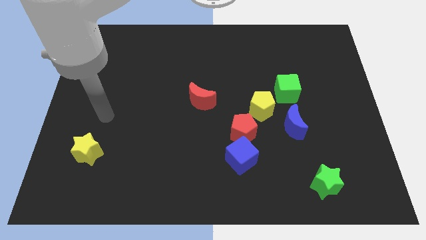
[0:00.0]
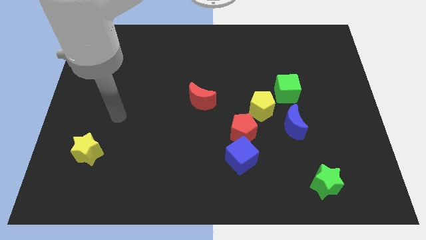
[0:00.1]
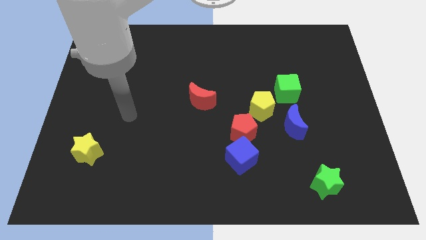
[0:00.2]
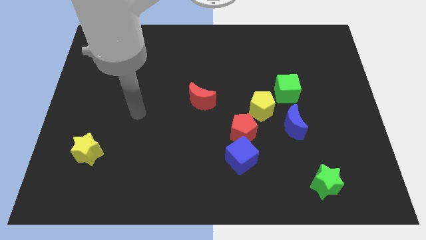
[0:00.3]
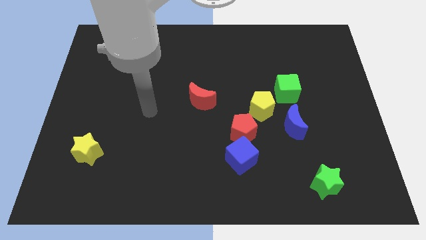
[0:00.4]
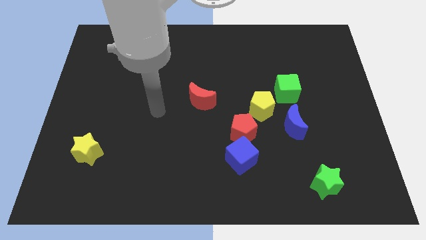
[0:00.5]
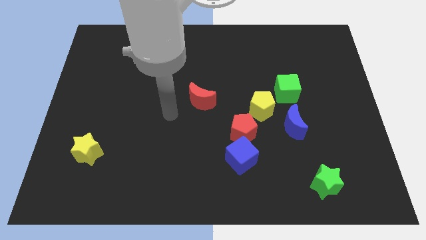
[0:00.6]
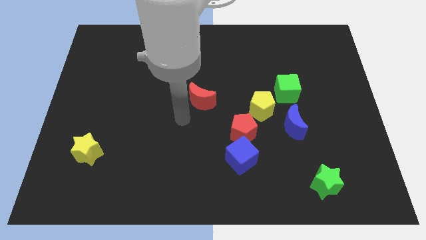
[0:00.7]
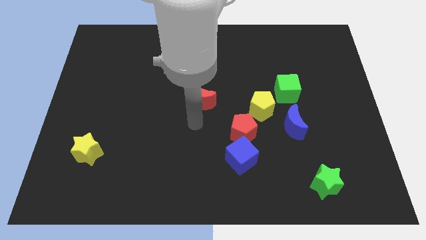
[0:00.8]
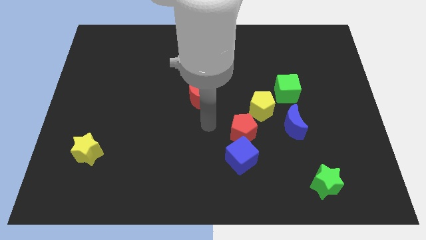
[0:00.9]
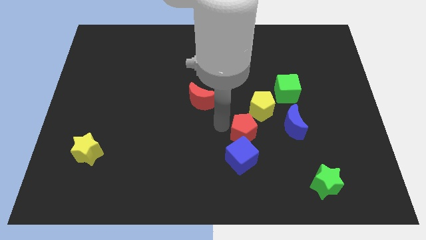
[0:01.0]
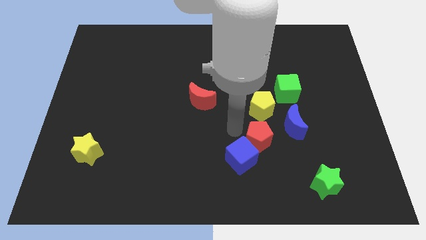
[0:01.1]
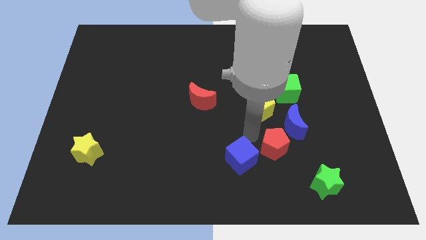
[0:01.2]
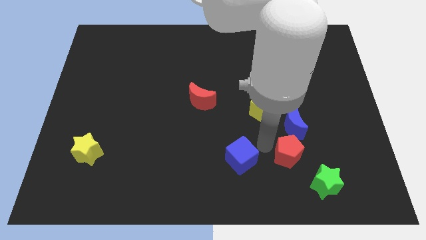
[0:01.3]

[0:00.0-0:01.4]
move the blue cube away from the red pentagon

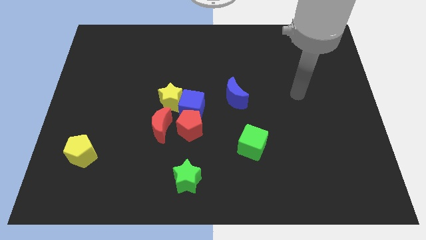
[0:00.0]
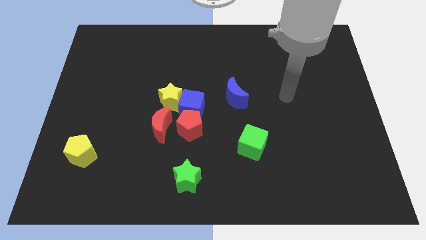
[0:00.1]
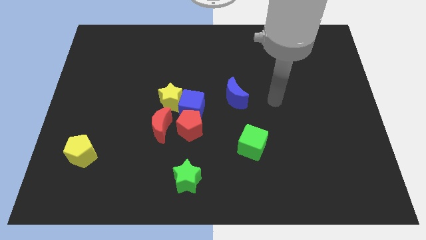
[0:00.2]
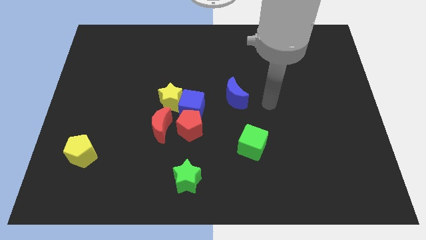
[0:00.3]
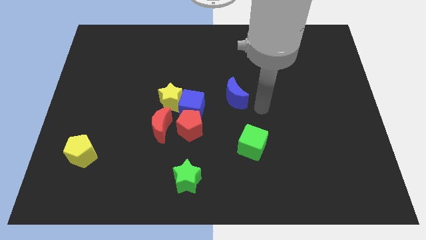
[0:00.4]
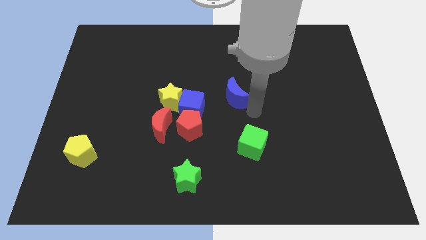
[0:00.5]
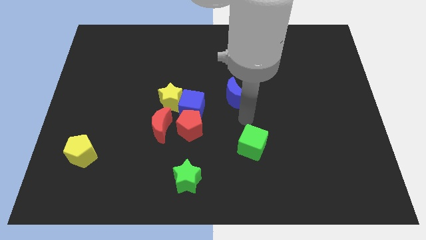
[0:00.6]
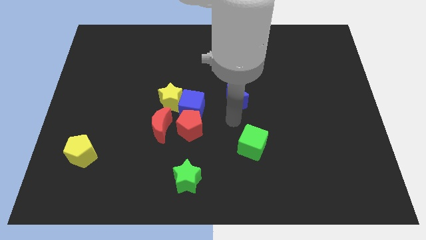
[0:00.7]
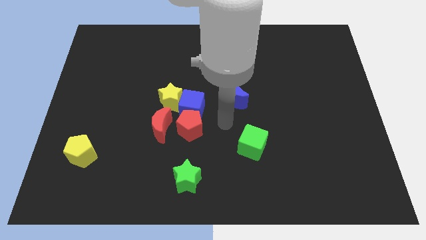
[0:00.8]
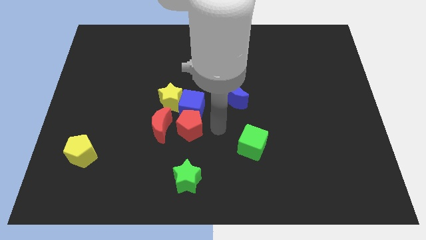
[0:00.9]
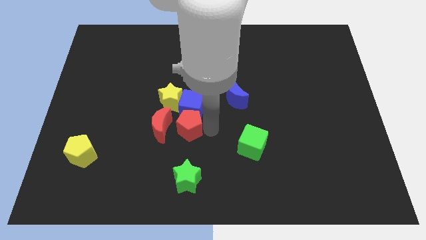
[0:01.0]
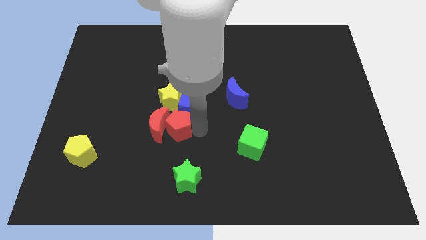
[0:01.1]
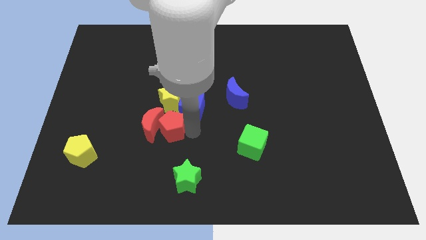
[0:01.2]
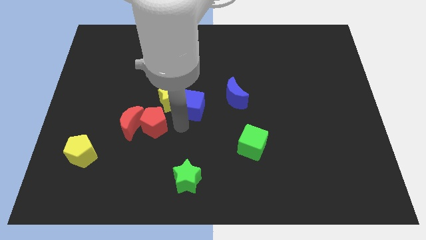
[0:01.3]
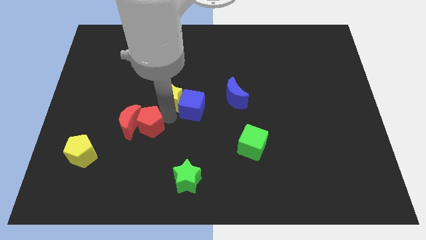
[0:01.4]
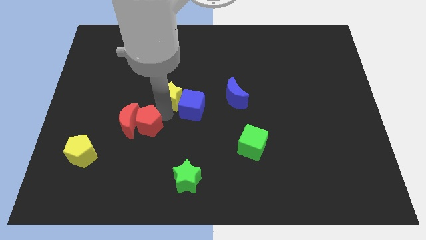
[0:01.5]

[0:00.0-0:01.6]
move the blue cube away from the group

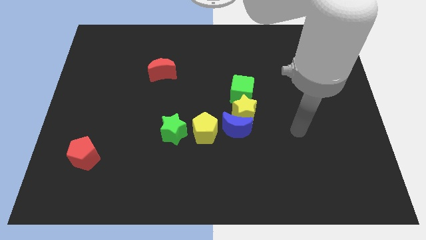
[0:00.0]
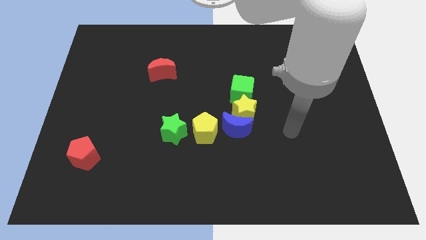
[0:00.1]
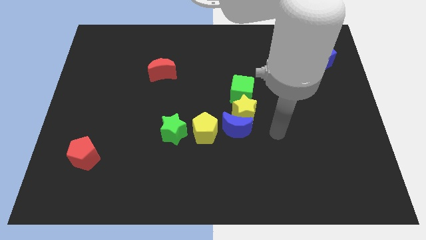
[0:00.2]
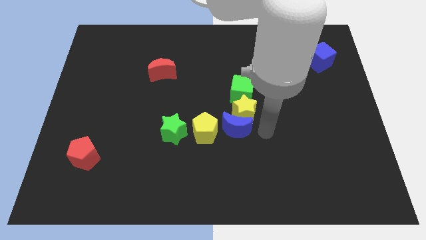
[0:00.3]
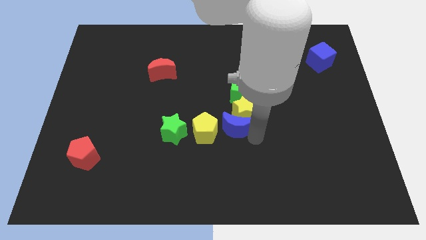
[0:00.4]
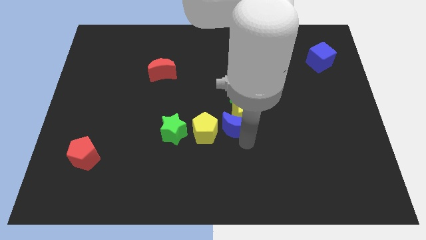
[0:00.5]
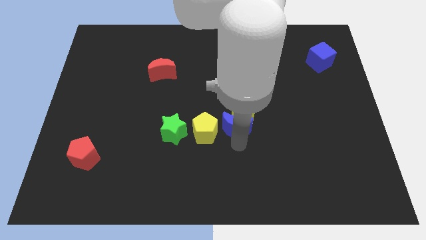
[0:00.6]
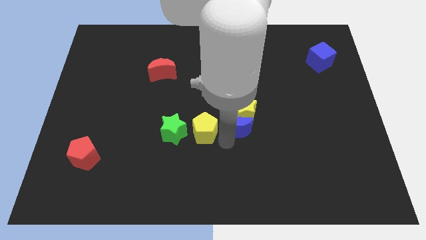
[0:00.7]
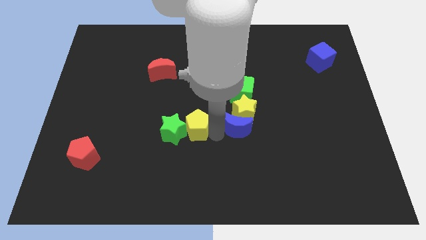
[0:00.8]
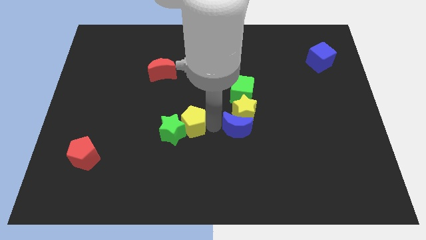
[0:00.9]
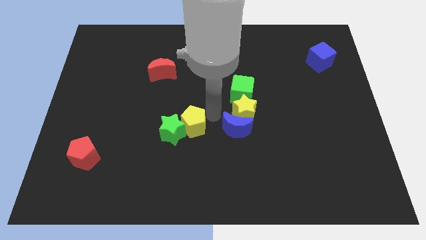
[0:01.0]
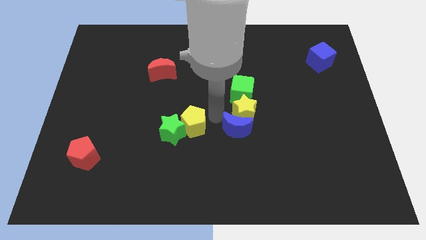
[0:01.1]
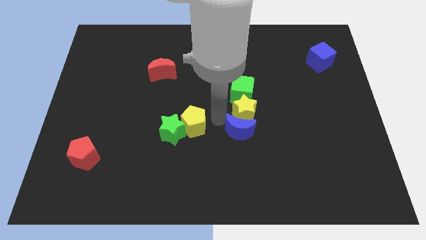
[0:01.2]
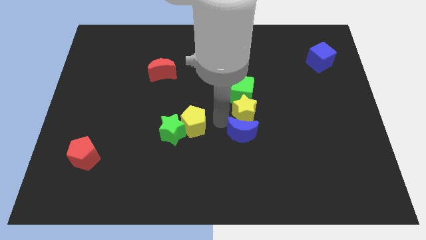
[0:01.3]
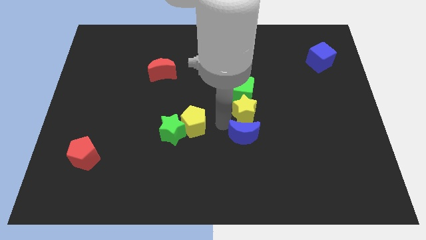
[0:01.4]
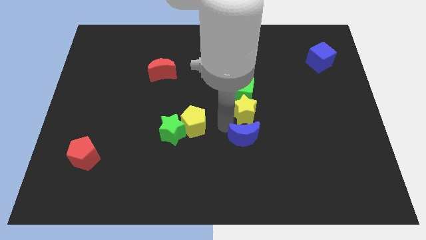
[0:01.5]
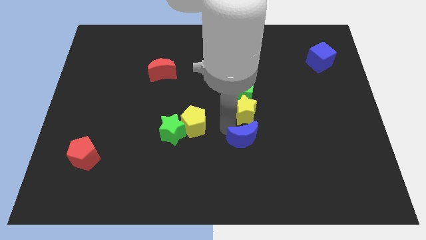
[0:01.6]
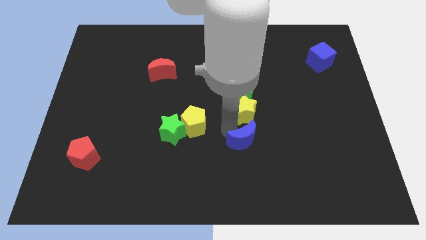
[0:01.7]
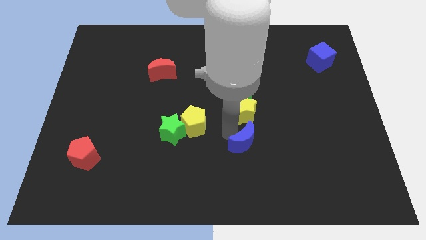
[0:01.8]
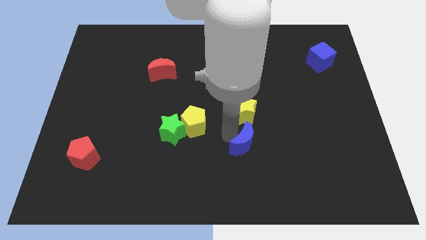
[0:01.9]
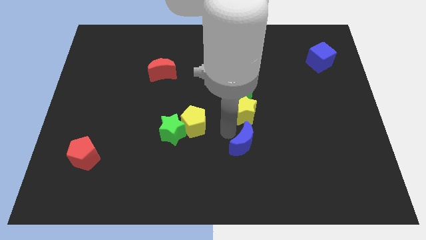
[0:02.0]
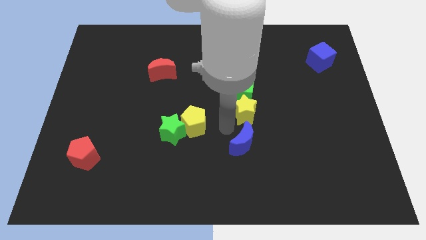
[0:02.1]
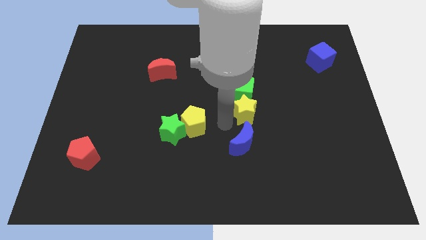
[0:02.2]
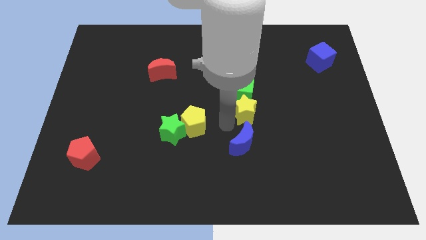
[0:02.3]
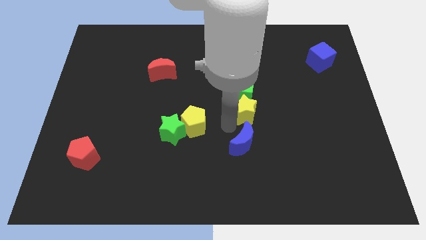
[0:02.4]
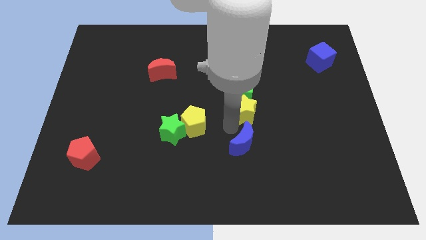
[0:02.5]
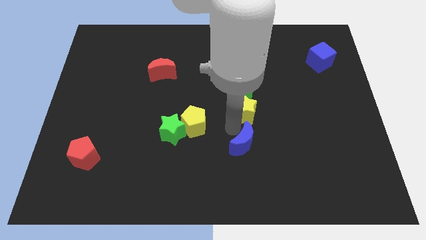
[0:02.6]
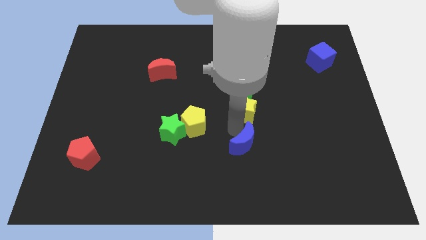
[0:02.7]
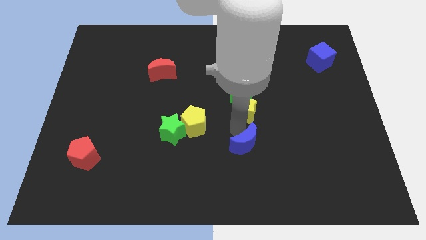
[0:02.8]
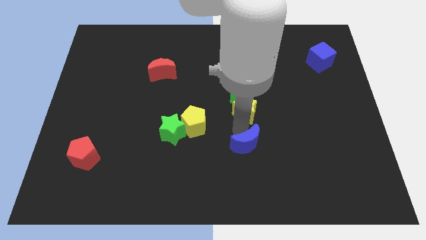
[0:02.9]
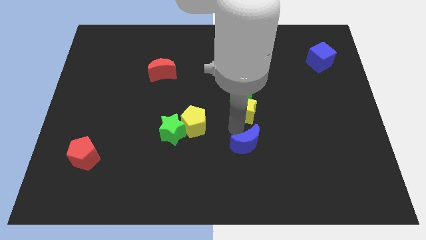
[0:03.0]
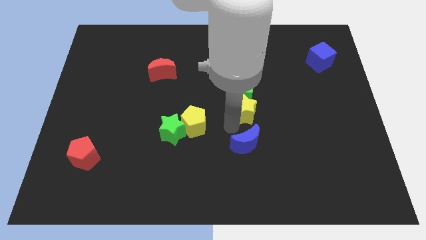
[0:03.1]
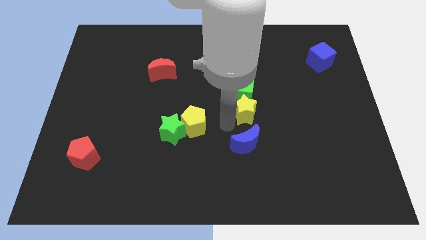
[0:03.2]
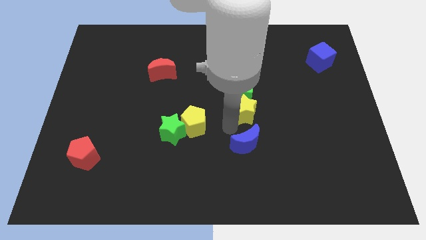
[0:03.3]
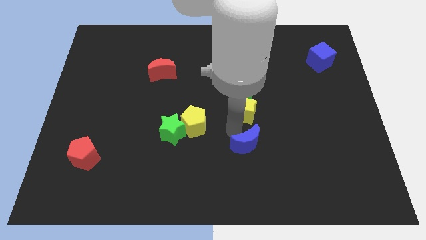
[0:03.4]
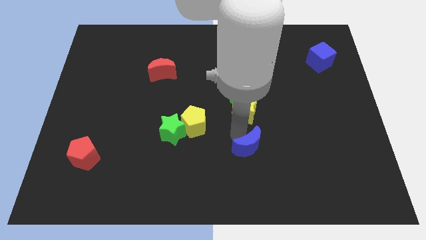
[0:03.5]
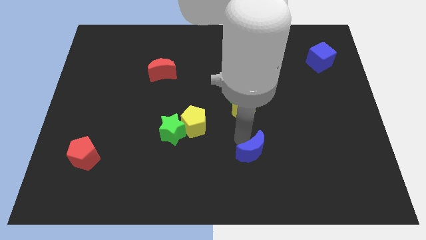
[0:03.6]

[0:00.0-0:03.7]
separate the blue moon from the yellow star and yellow pentagon

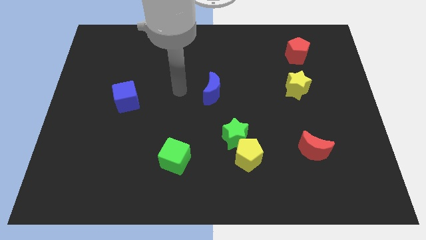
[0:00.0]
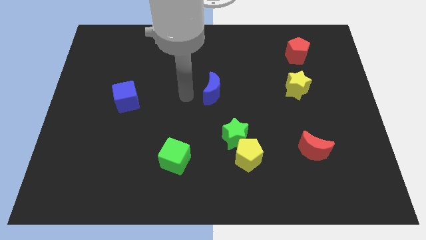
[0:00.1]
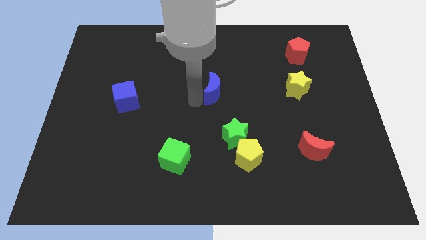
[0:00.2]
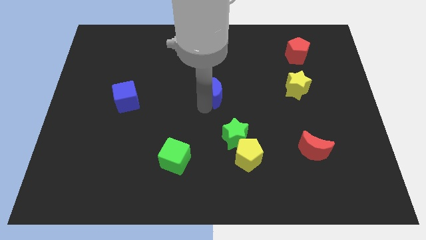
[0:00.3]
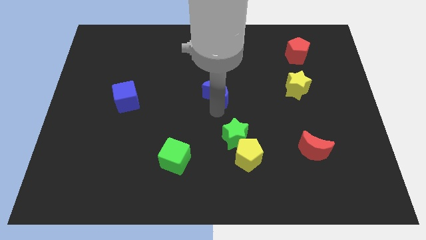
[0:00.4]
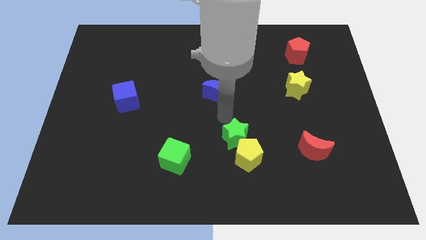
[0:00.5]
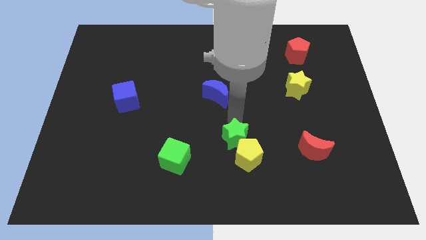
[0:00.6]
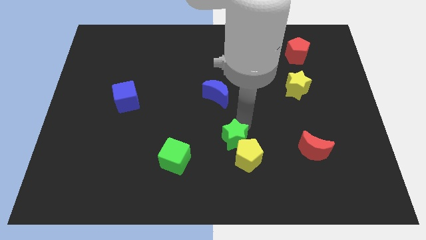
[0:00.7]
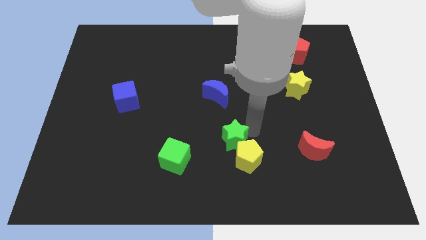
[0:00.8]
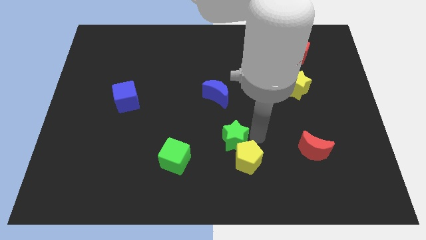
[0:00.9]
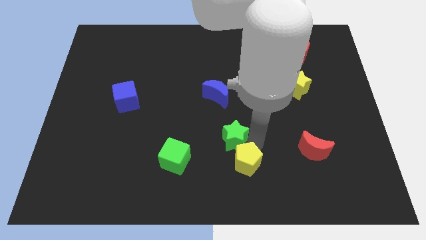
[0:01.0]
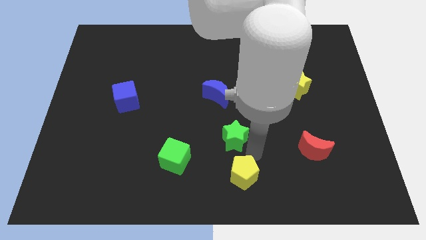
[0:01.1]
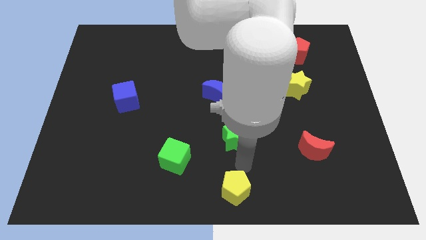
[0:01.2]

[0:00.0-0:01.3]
move the green star away from the yellow pentagon

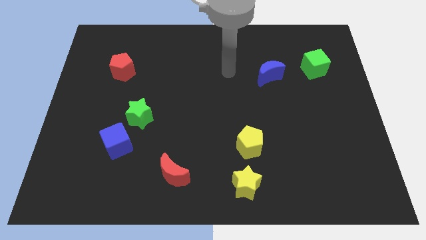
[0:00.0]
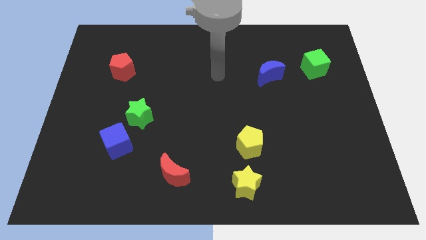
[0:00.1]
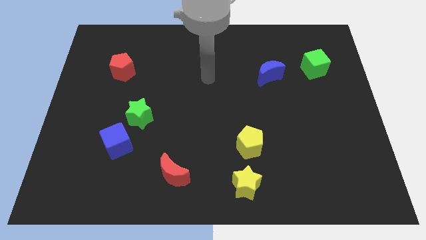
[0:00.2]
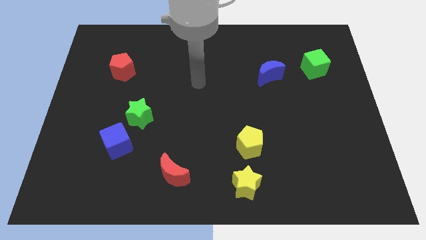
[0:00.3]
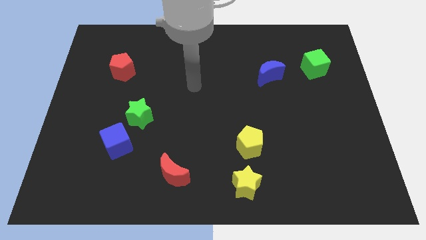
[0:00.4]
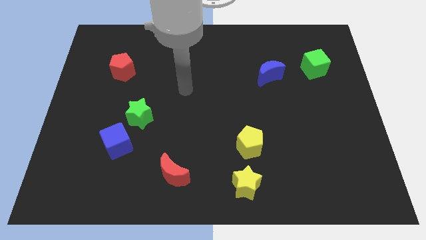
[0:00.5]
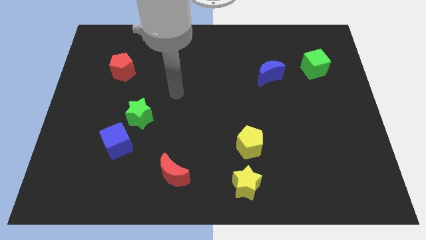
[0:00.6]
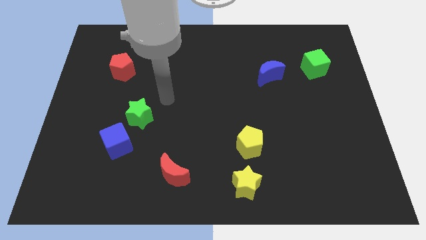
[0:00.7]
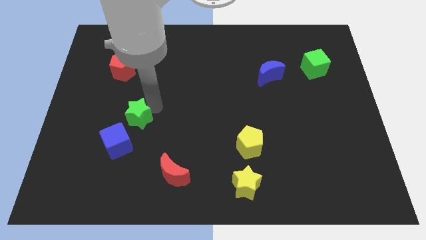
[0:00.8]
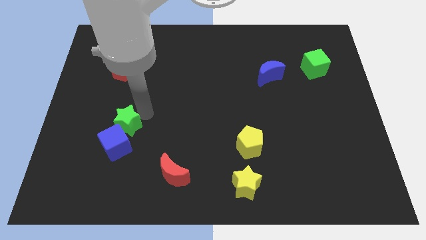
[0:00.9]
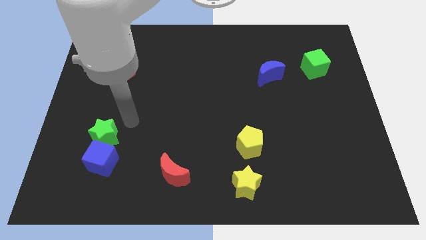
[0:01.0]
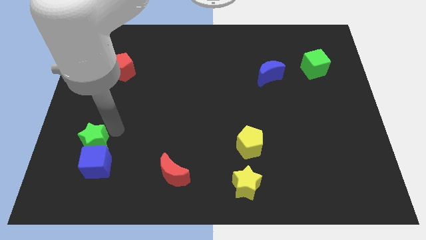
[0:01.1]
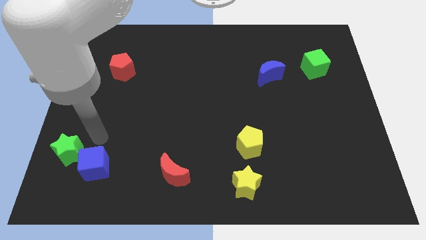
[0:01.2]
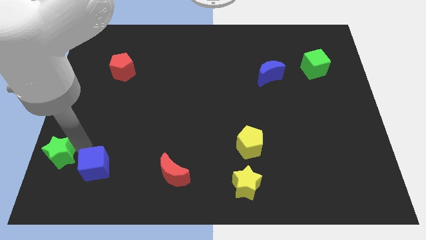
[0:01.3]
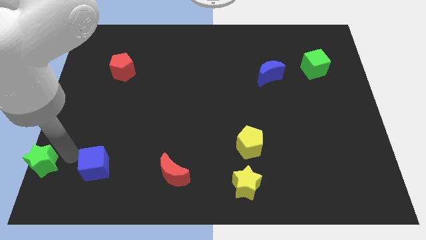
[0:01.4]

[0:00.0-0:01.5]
separate the blue cube from the green star
